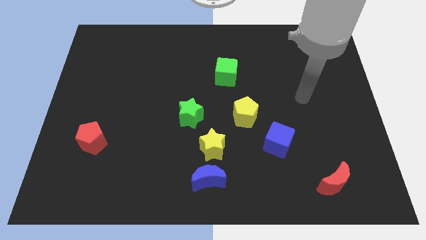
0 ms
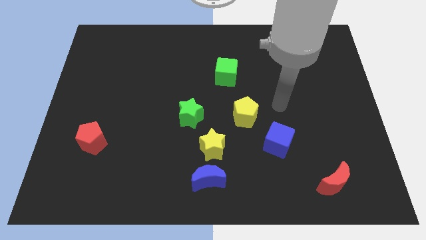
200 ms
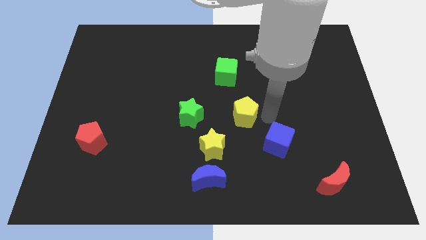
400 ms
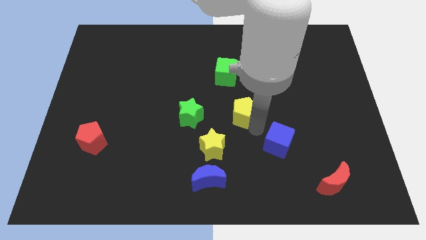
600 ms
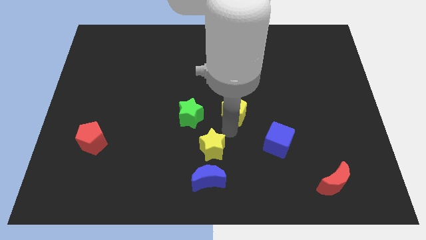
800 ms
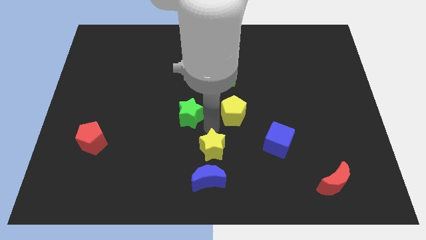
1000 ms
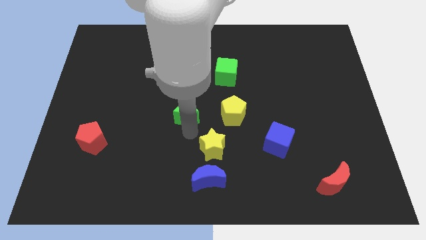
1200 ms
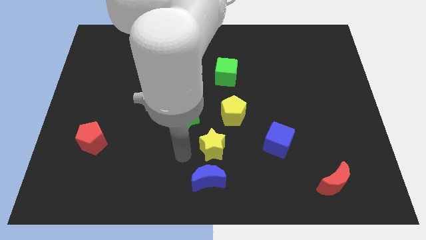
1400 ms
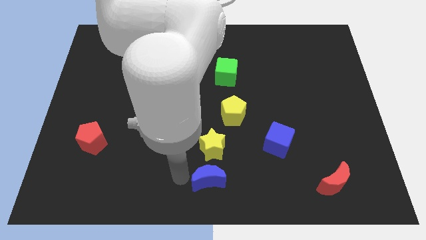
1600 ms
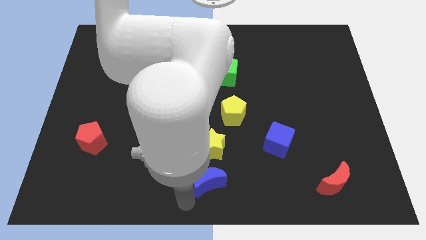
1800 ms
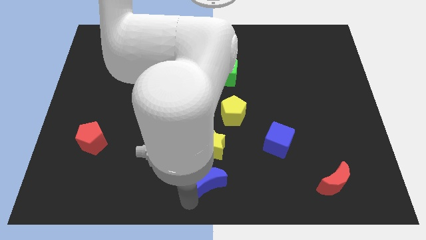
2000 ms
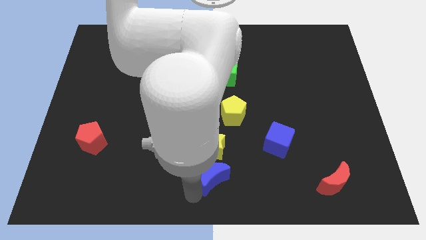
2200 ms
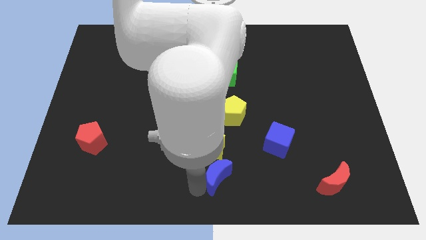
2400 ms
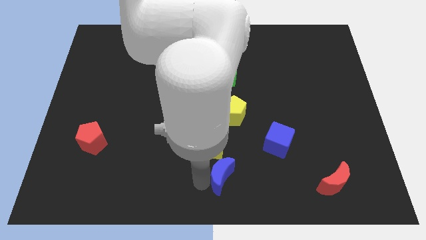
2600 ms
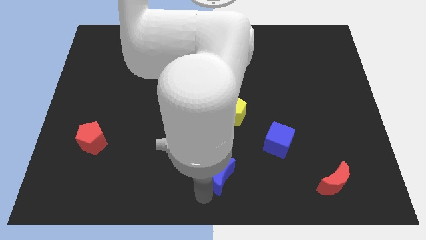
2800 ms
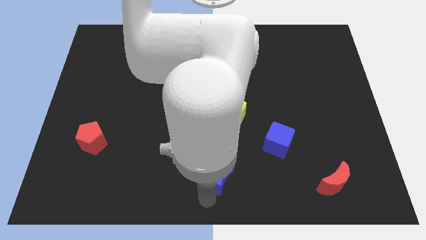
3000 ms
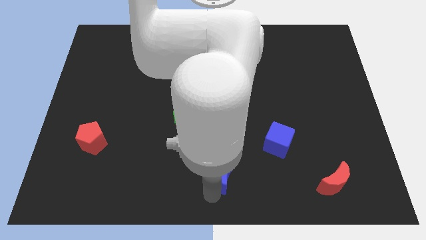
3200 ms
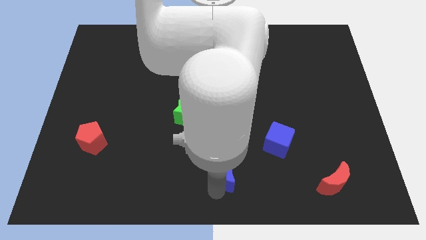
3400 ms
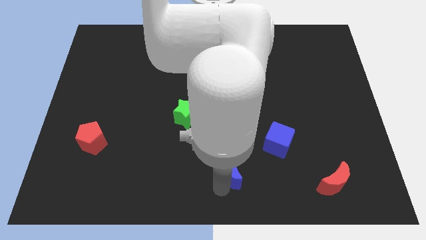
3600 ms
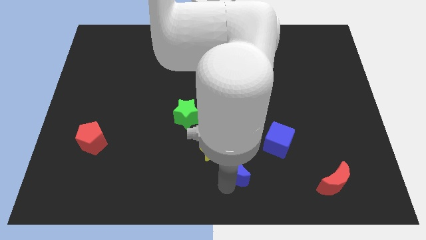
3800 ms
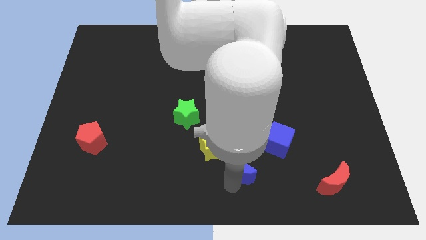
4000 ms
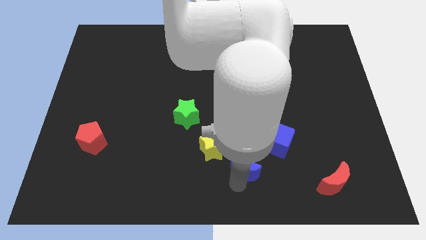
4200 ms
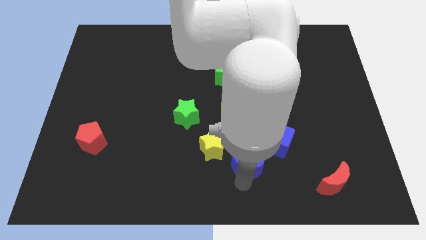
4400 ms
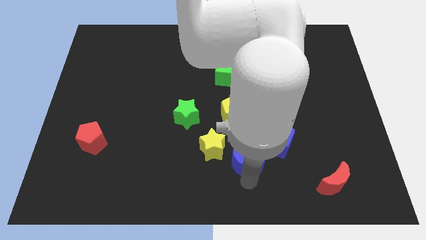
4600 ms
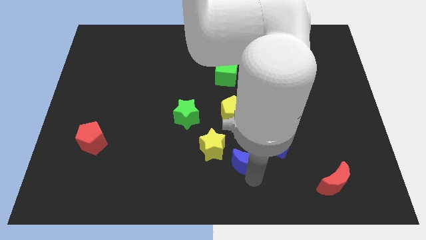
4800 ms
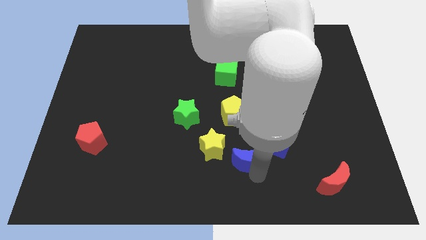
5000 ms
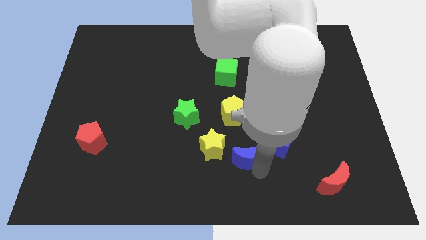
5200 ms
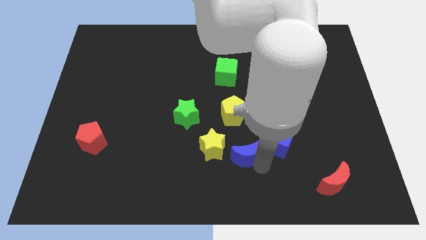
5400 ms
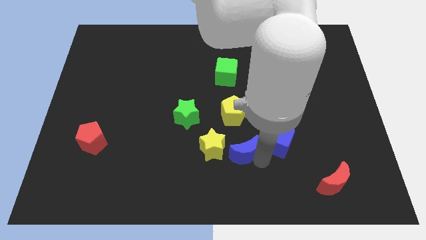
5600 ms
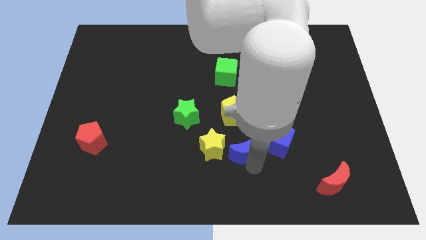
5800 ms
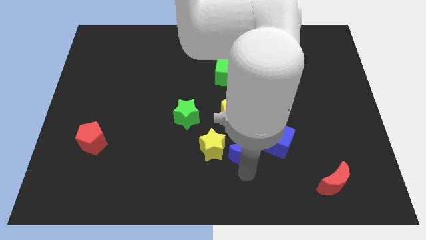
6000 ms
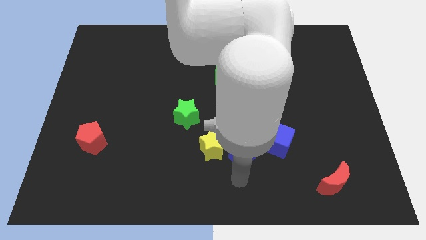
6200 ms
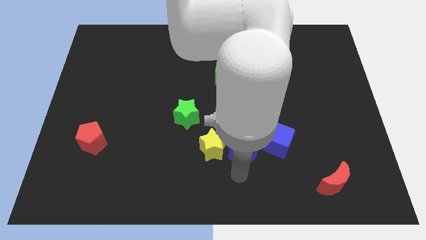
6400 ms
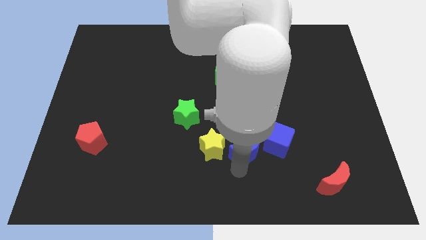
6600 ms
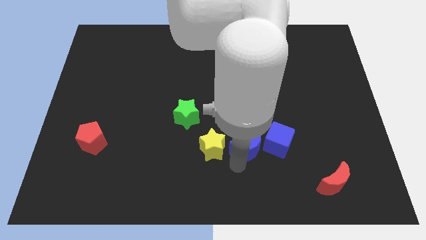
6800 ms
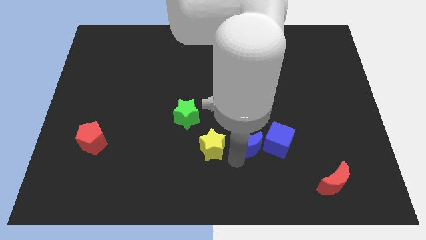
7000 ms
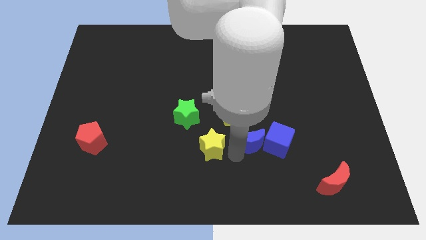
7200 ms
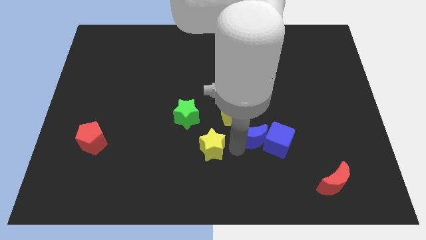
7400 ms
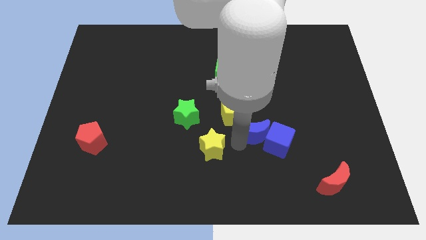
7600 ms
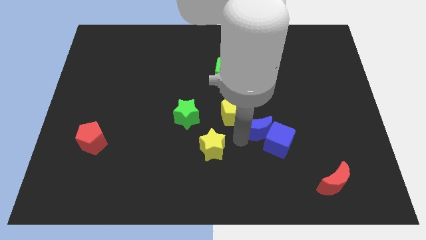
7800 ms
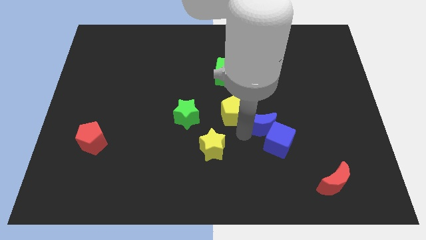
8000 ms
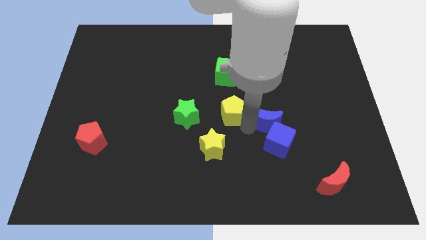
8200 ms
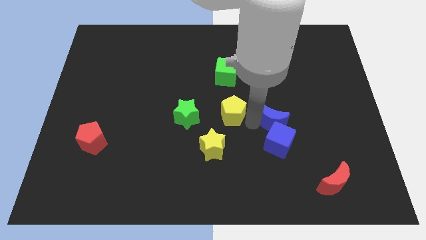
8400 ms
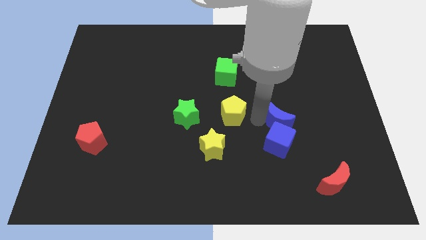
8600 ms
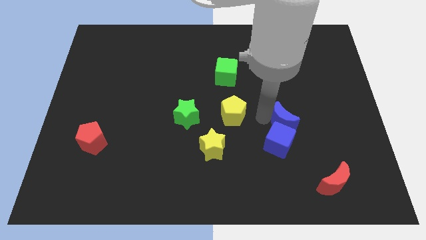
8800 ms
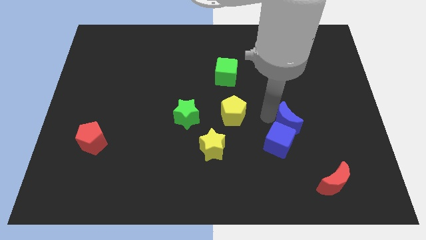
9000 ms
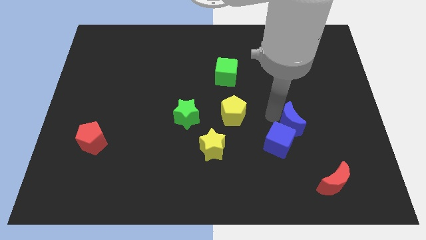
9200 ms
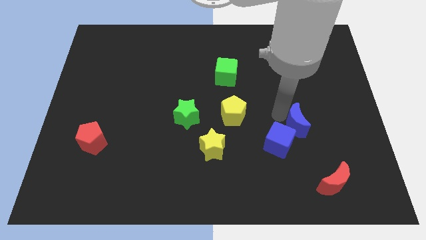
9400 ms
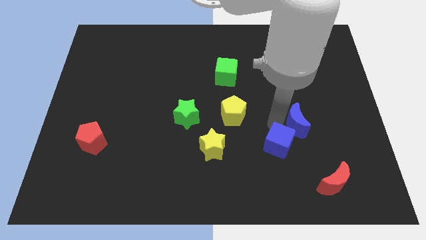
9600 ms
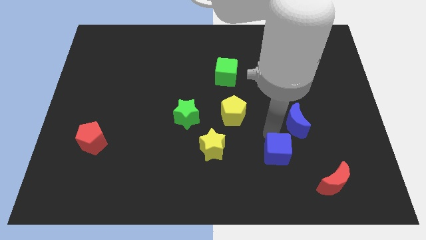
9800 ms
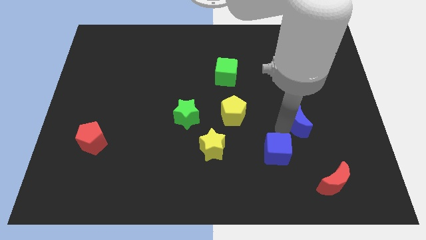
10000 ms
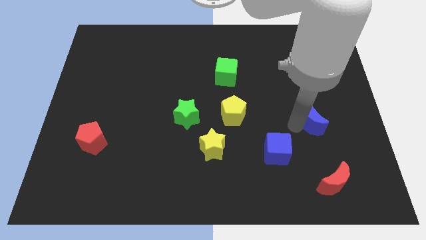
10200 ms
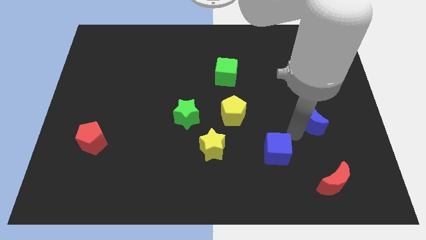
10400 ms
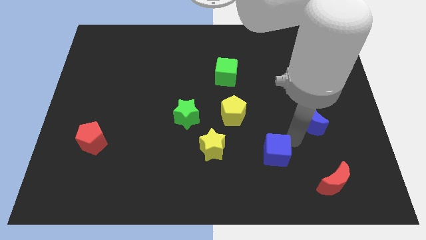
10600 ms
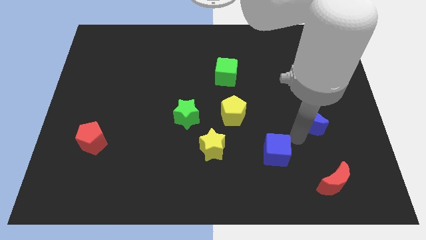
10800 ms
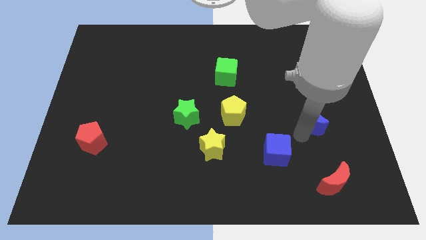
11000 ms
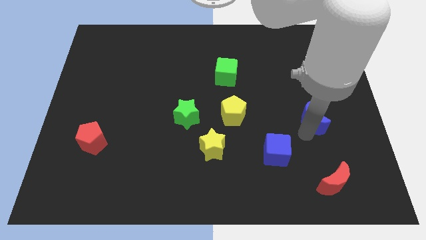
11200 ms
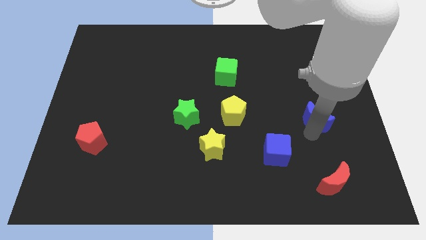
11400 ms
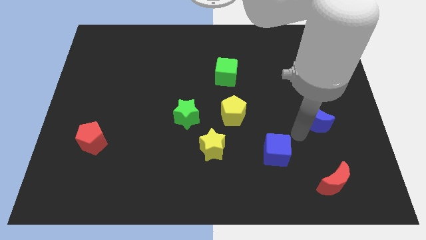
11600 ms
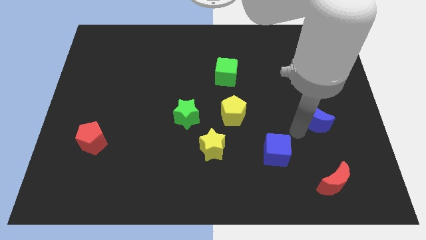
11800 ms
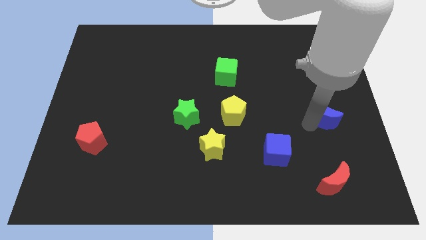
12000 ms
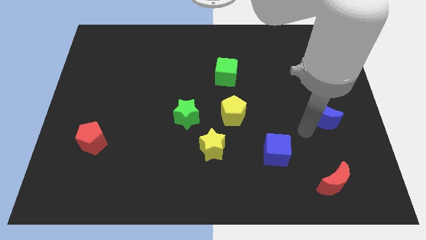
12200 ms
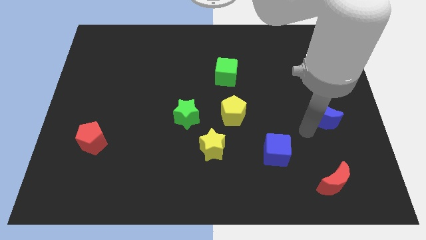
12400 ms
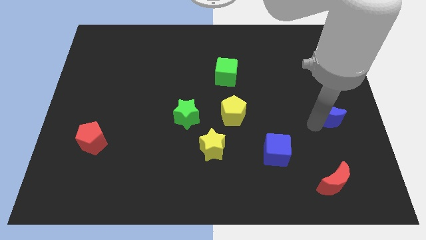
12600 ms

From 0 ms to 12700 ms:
move the blue moon to the right side
